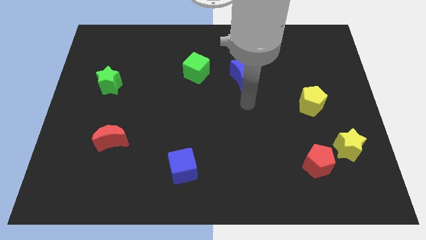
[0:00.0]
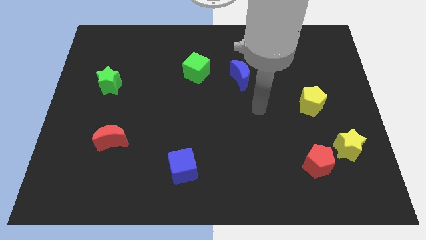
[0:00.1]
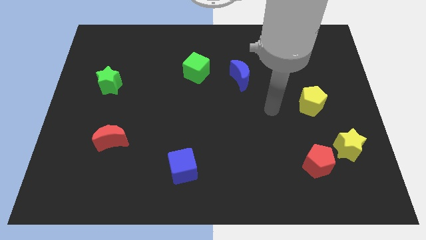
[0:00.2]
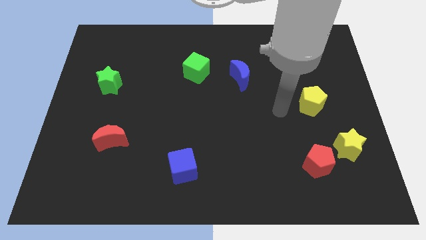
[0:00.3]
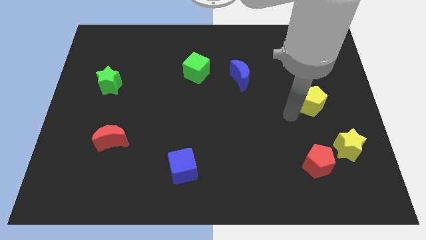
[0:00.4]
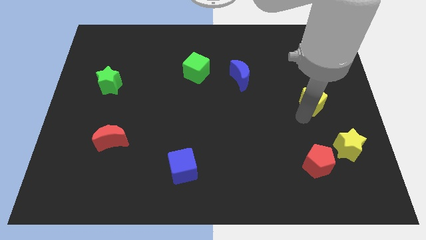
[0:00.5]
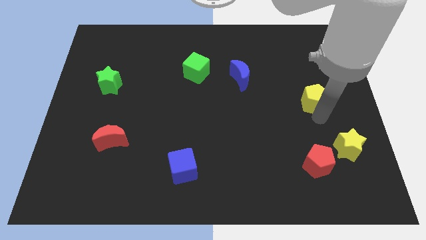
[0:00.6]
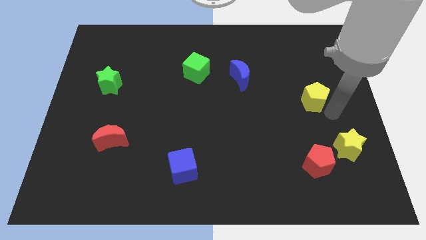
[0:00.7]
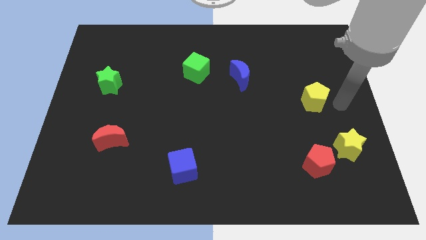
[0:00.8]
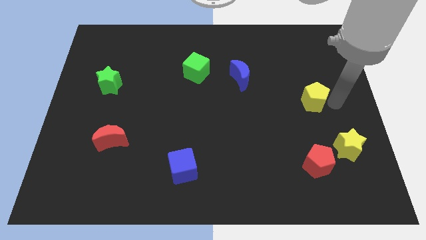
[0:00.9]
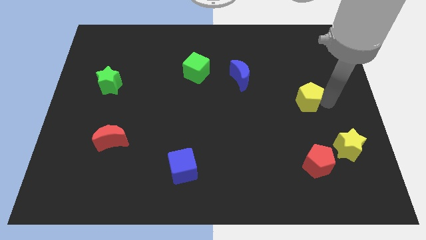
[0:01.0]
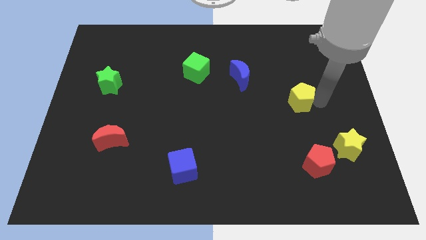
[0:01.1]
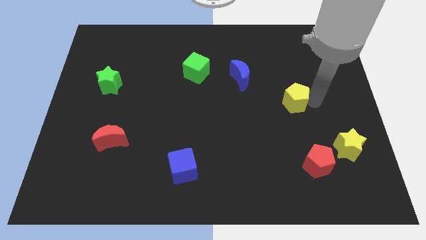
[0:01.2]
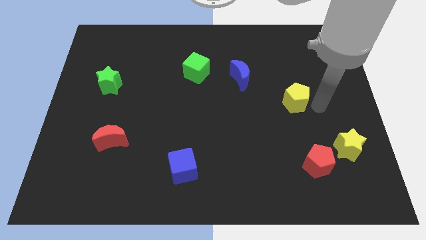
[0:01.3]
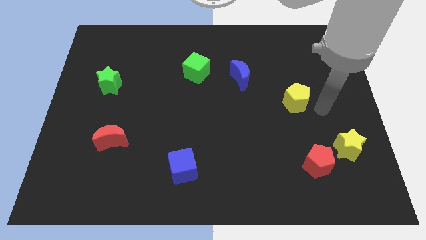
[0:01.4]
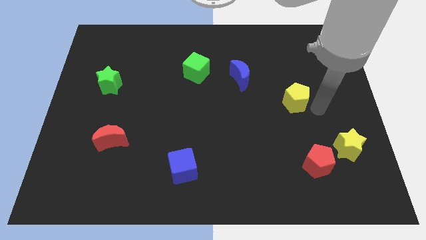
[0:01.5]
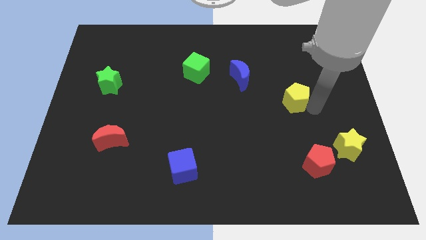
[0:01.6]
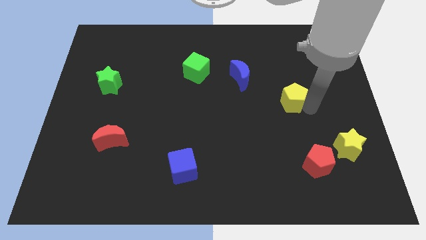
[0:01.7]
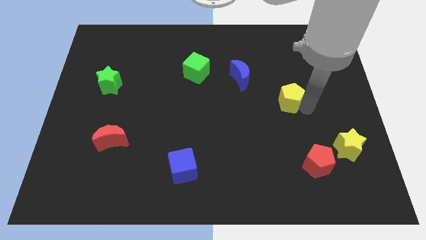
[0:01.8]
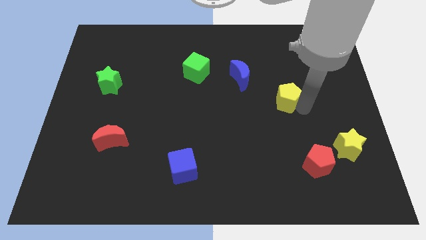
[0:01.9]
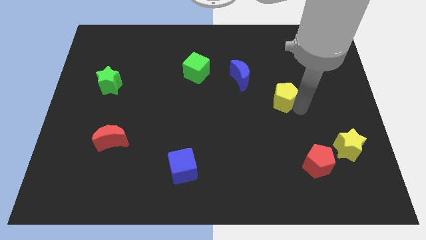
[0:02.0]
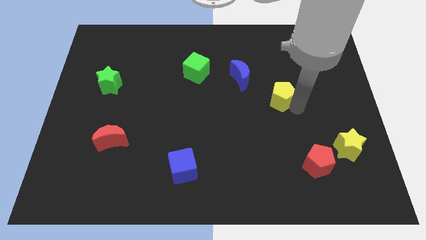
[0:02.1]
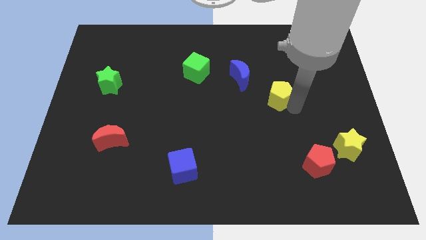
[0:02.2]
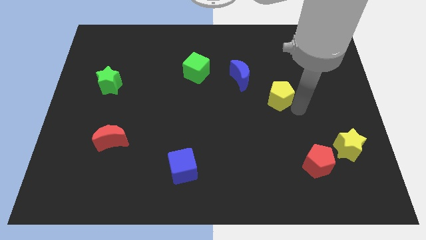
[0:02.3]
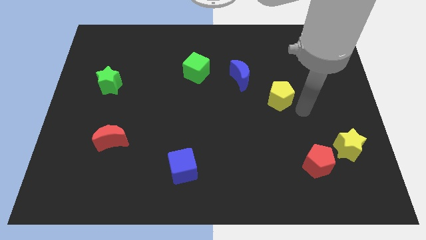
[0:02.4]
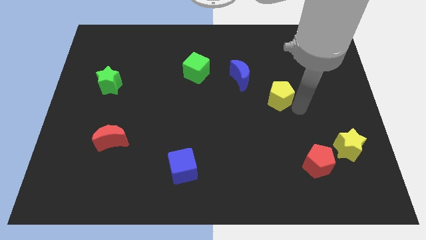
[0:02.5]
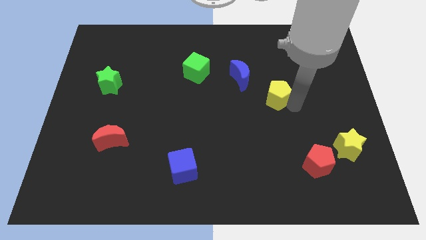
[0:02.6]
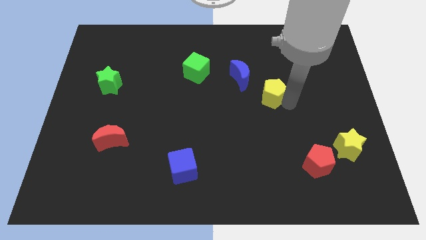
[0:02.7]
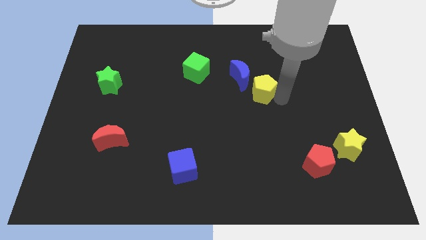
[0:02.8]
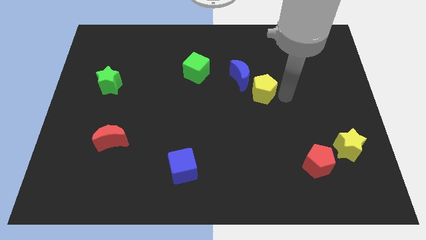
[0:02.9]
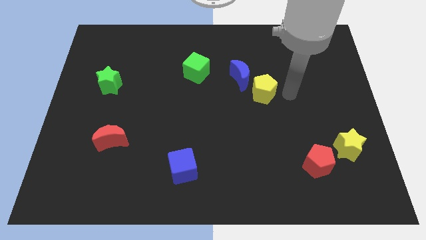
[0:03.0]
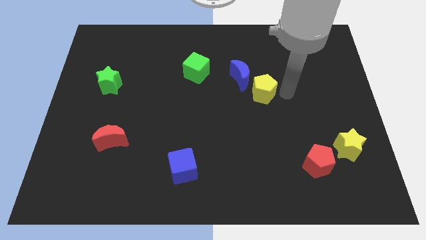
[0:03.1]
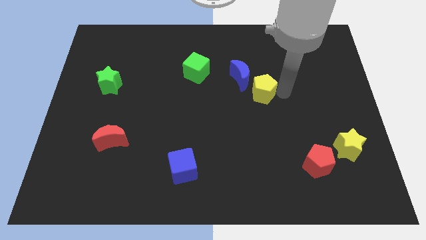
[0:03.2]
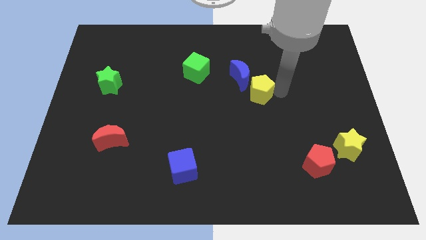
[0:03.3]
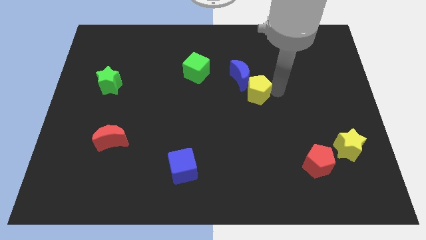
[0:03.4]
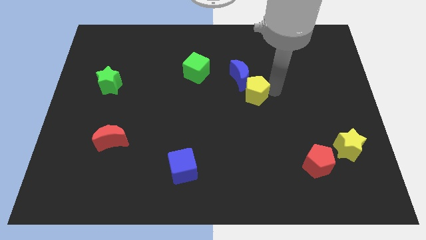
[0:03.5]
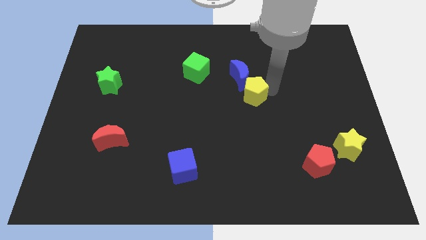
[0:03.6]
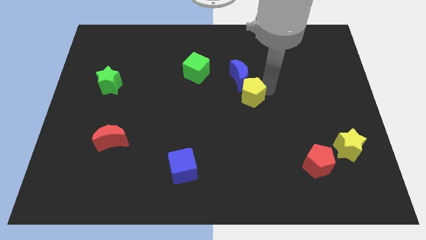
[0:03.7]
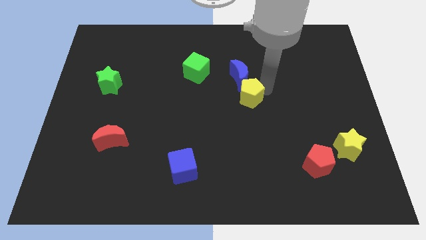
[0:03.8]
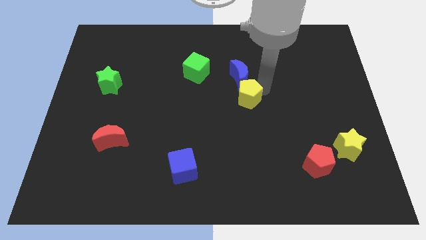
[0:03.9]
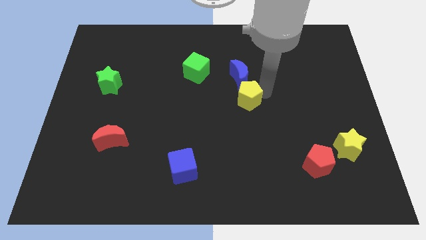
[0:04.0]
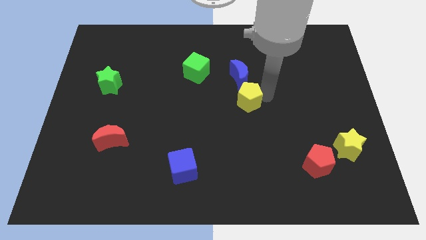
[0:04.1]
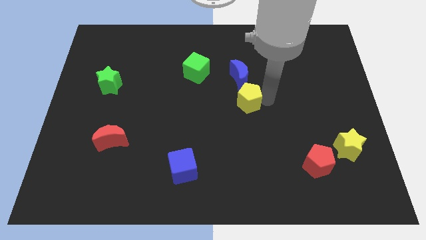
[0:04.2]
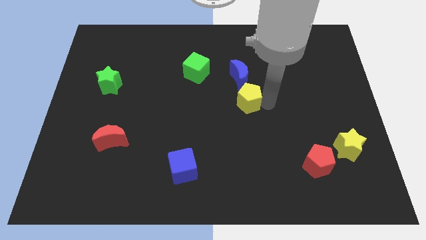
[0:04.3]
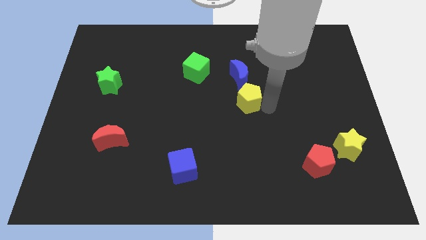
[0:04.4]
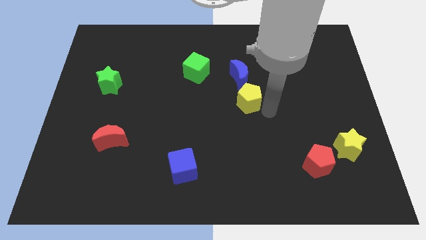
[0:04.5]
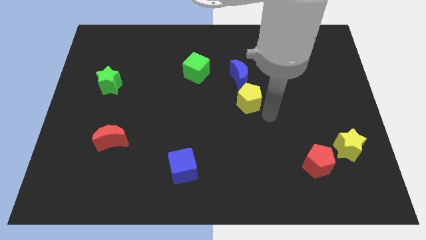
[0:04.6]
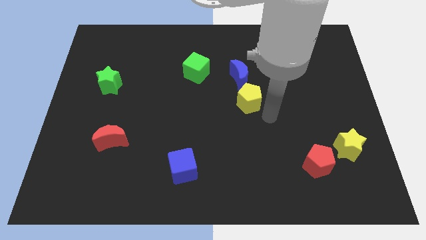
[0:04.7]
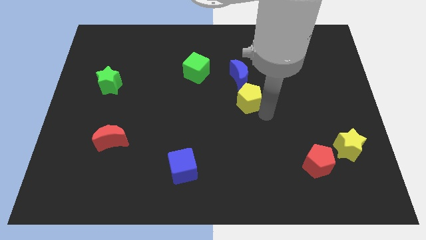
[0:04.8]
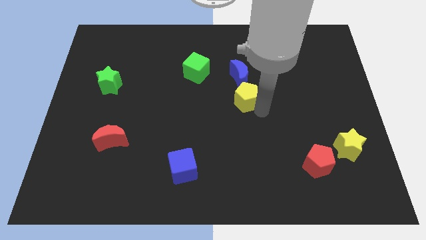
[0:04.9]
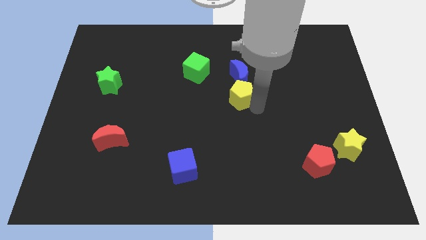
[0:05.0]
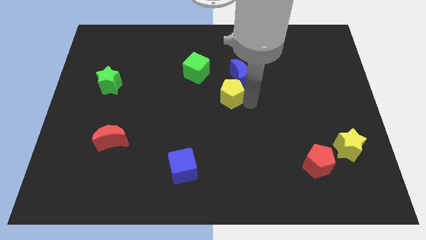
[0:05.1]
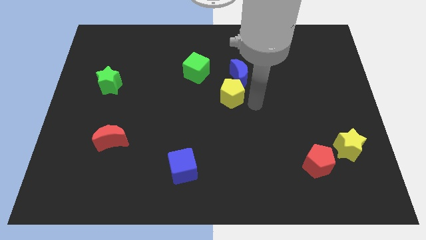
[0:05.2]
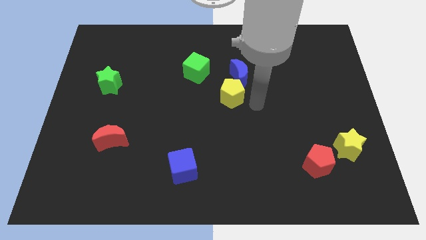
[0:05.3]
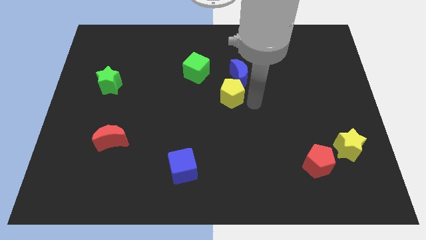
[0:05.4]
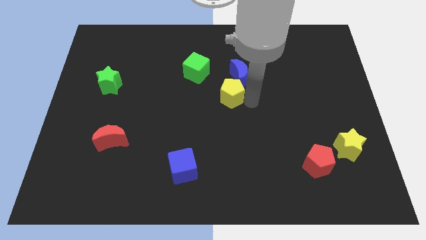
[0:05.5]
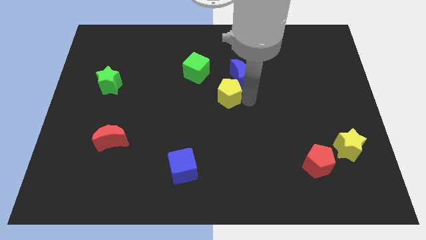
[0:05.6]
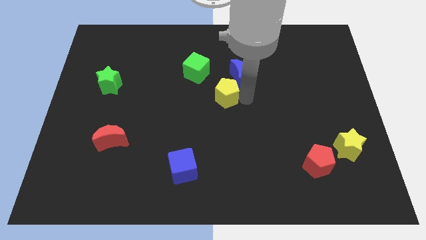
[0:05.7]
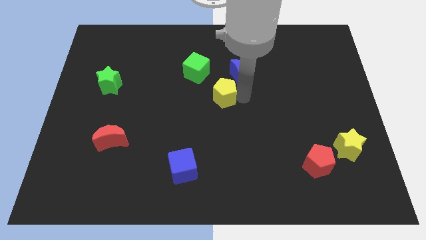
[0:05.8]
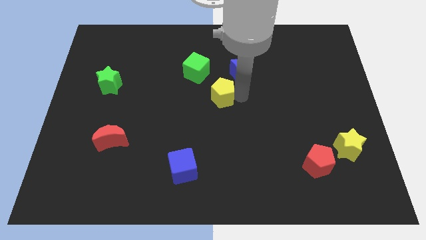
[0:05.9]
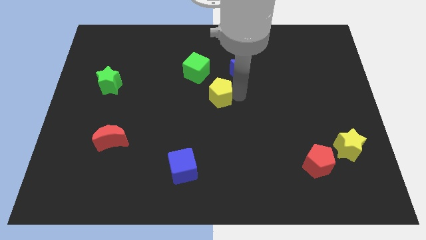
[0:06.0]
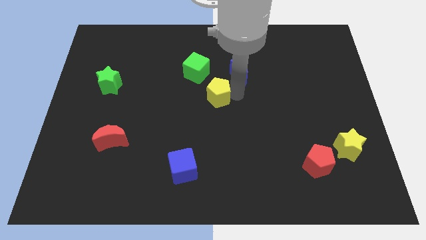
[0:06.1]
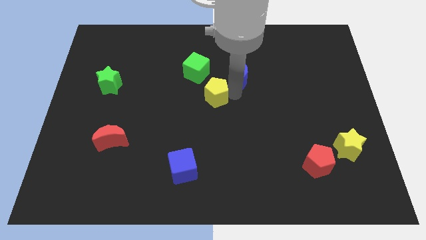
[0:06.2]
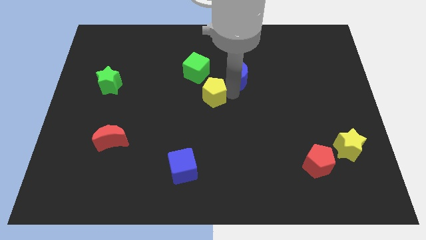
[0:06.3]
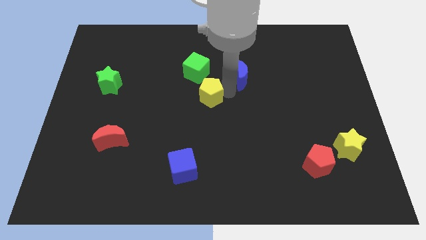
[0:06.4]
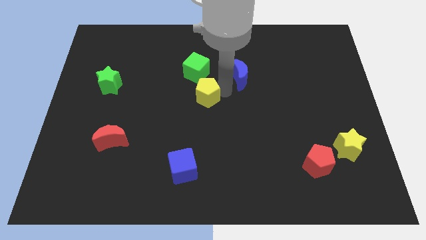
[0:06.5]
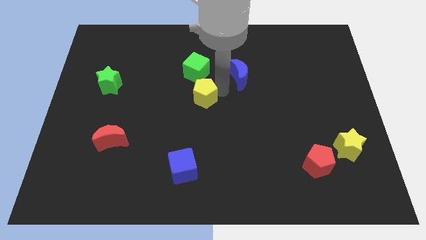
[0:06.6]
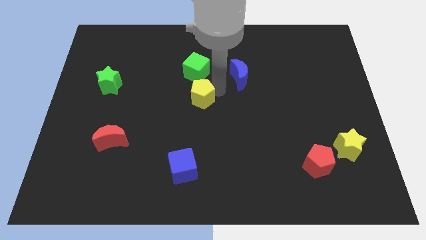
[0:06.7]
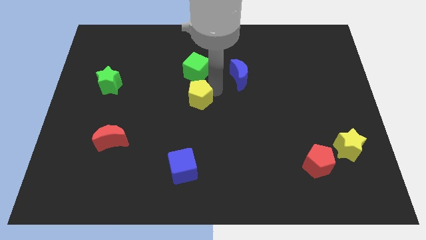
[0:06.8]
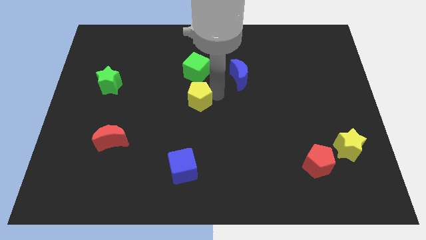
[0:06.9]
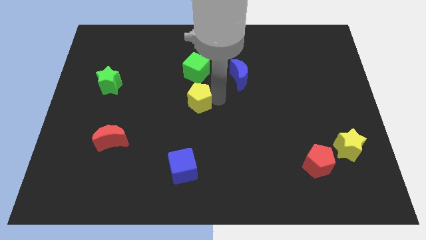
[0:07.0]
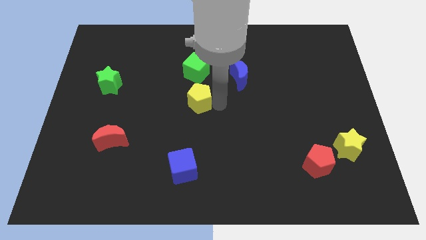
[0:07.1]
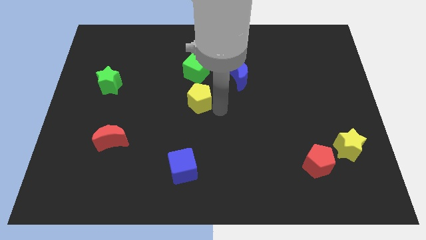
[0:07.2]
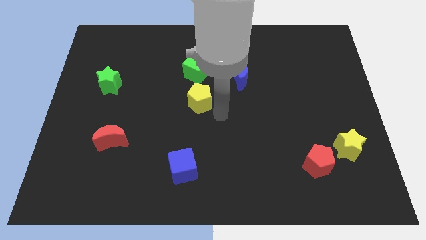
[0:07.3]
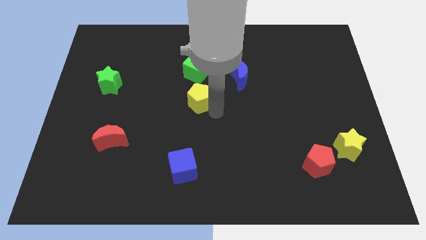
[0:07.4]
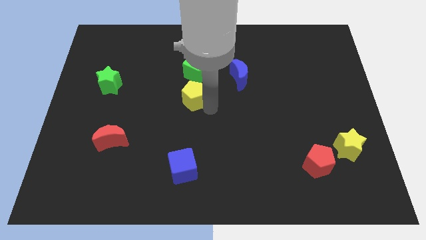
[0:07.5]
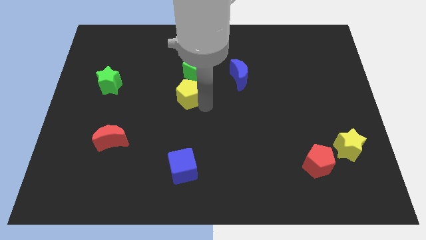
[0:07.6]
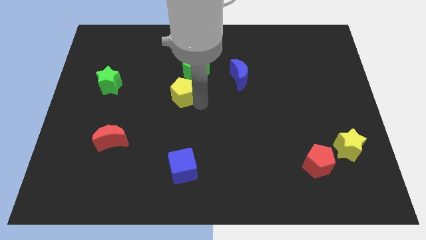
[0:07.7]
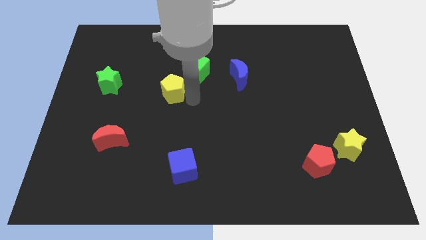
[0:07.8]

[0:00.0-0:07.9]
move the yellow pentagon just right of the green star

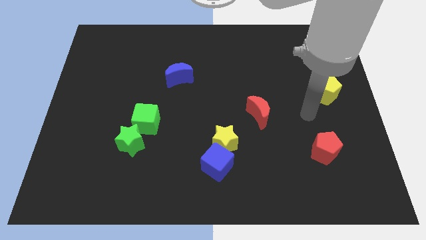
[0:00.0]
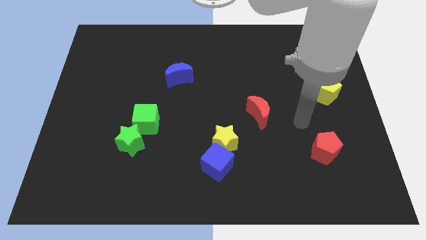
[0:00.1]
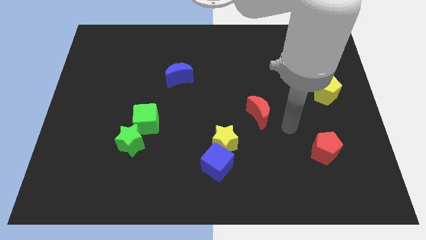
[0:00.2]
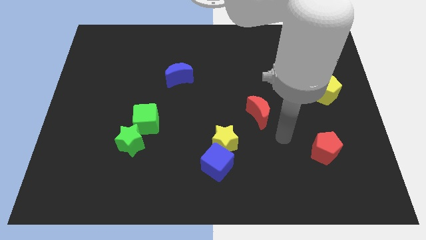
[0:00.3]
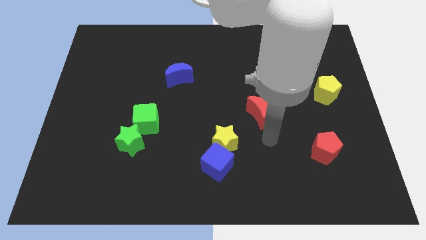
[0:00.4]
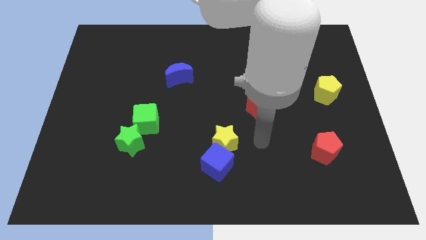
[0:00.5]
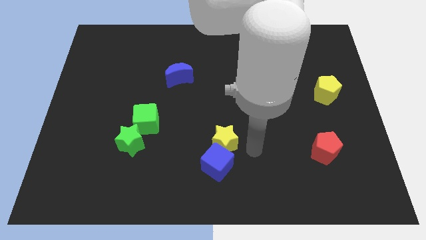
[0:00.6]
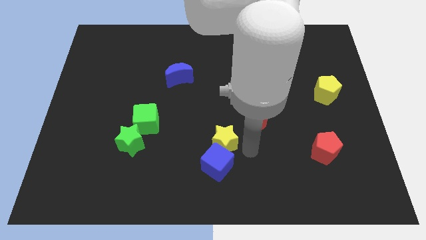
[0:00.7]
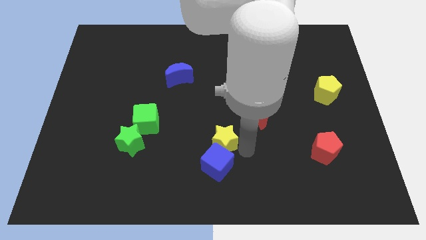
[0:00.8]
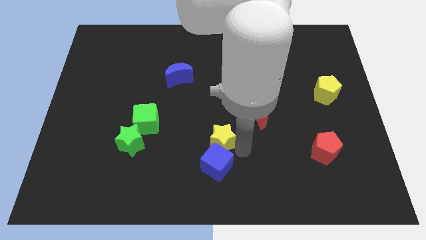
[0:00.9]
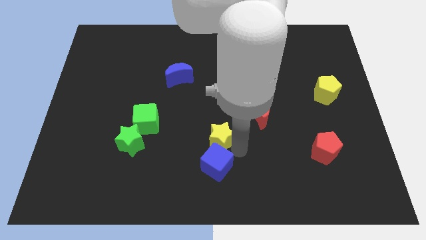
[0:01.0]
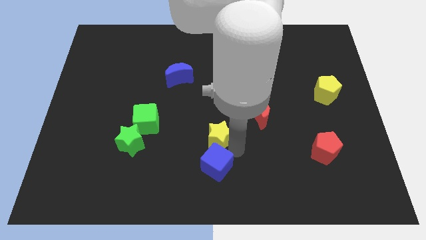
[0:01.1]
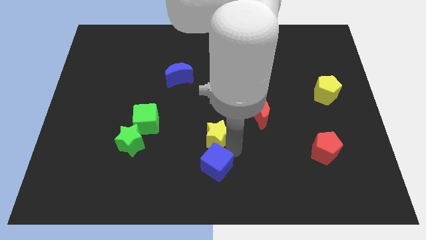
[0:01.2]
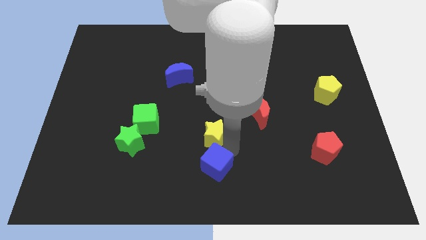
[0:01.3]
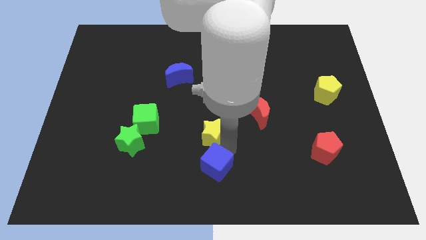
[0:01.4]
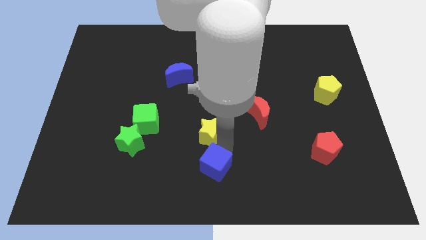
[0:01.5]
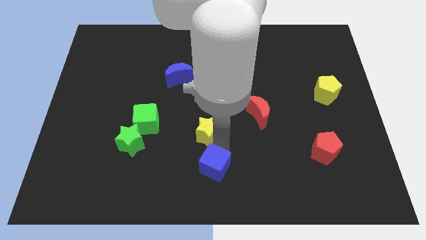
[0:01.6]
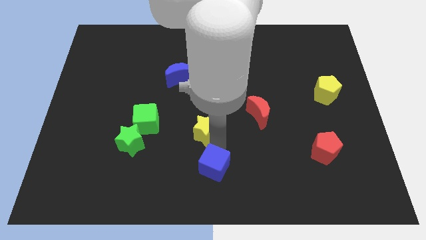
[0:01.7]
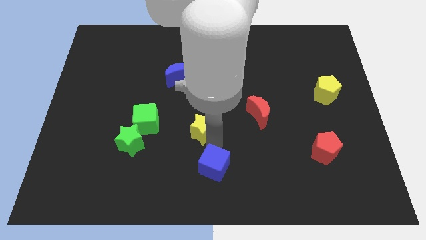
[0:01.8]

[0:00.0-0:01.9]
slide the yellow star just right of the green star
